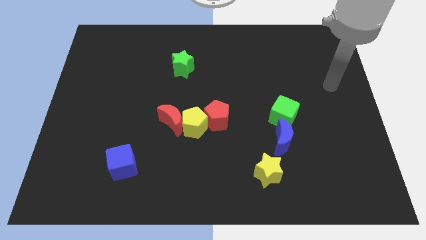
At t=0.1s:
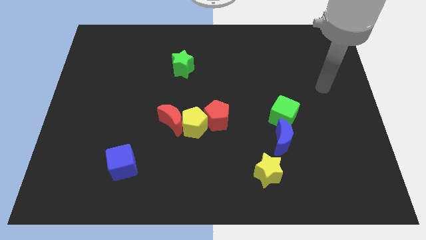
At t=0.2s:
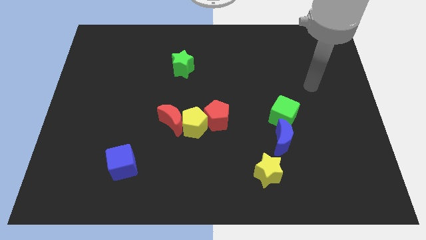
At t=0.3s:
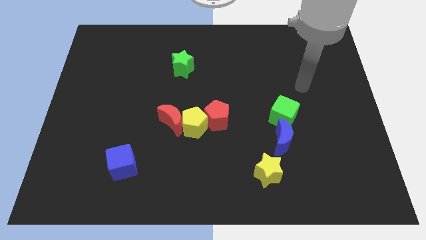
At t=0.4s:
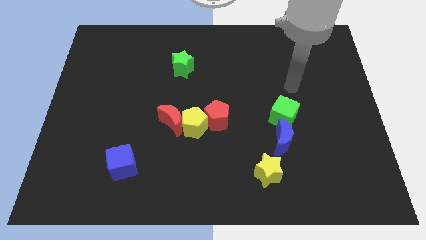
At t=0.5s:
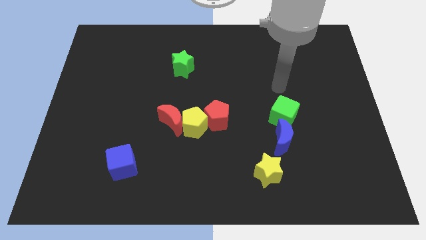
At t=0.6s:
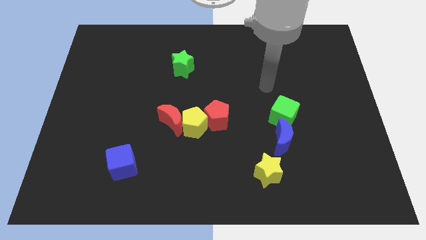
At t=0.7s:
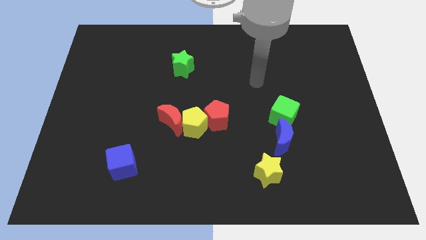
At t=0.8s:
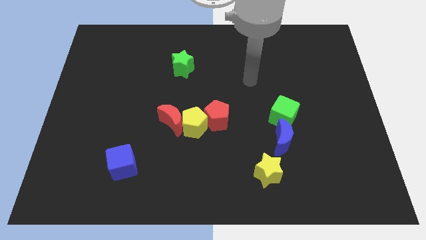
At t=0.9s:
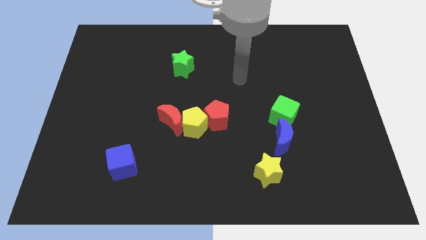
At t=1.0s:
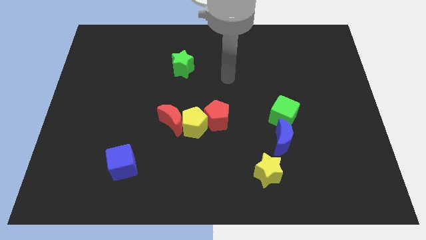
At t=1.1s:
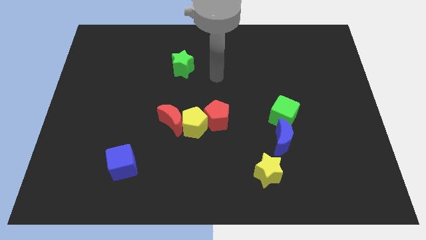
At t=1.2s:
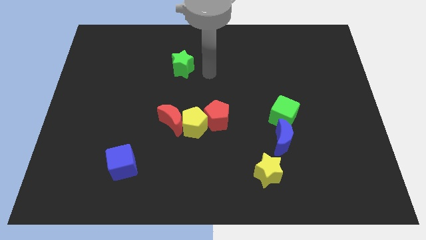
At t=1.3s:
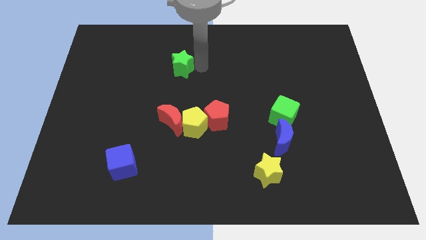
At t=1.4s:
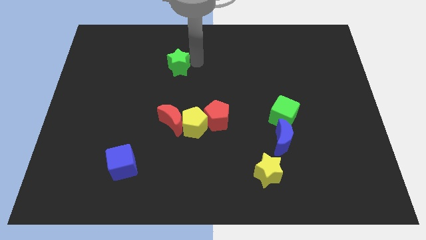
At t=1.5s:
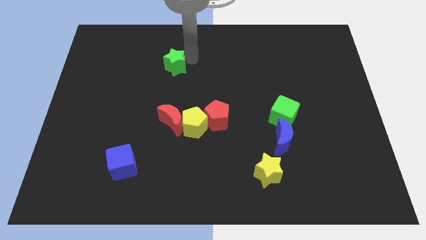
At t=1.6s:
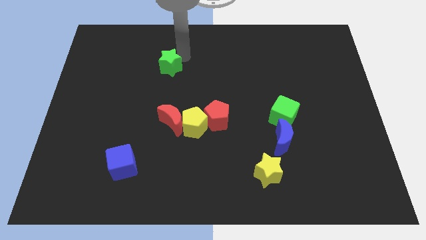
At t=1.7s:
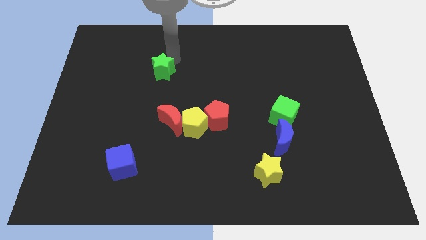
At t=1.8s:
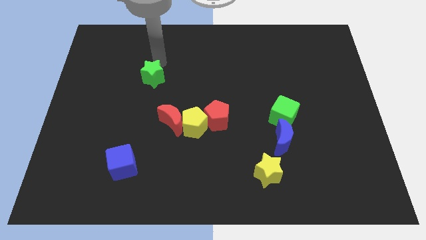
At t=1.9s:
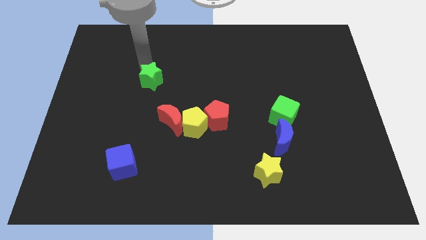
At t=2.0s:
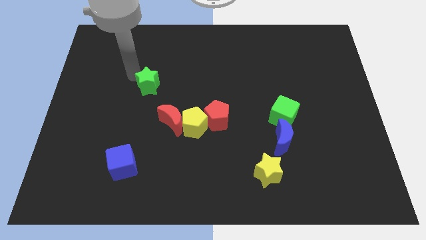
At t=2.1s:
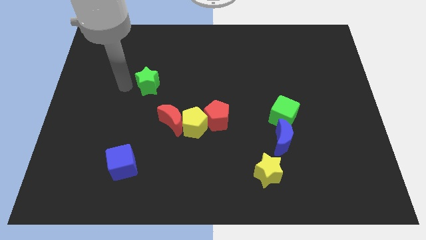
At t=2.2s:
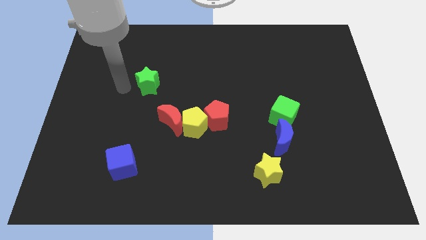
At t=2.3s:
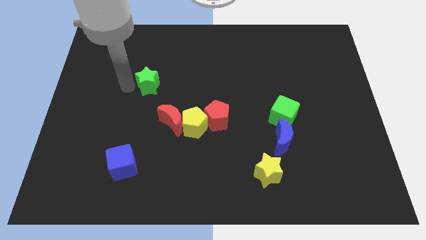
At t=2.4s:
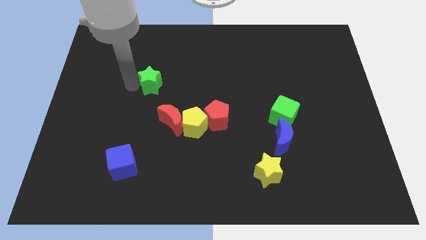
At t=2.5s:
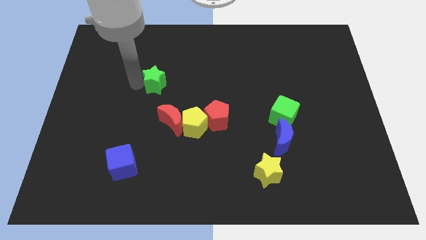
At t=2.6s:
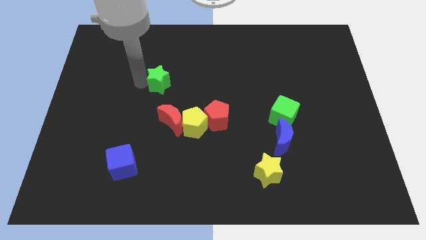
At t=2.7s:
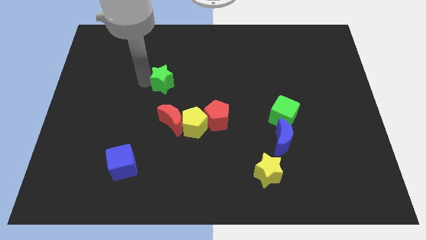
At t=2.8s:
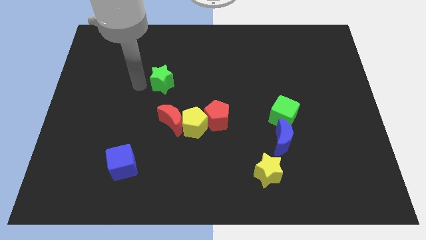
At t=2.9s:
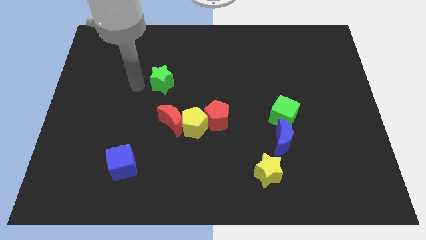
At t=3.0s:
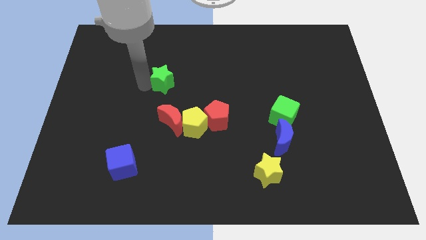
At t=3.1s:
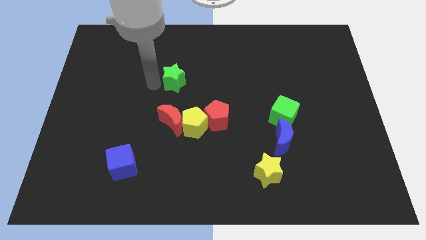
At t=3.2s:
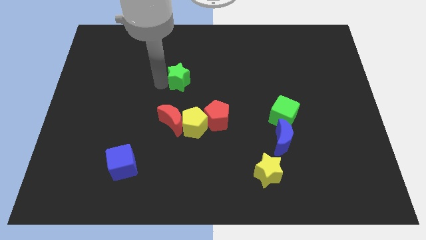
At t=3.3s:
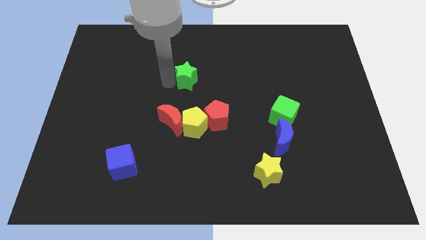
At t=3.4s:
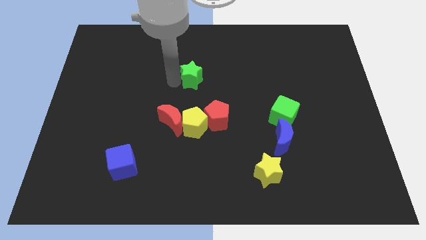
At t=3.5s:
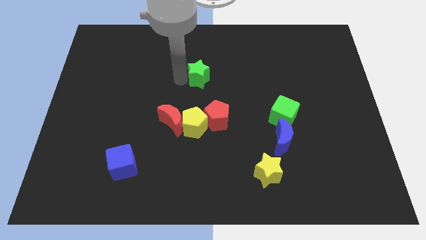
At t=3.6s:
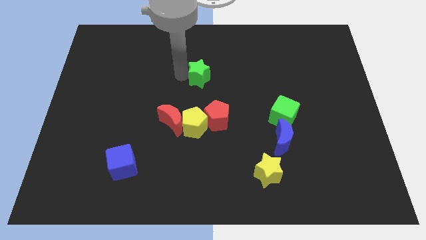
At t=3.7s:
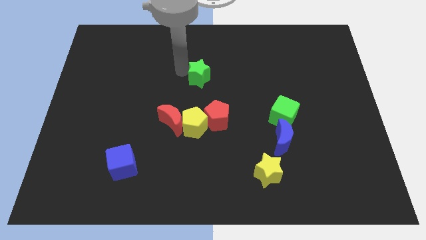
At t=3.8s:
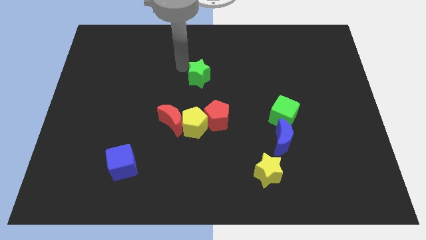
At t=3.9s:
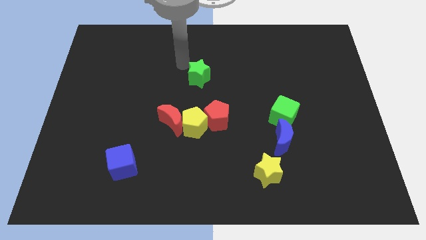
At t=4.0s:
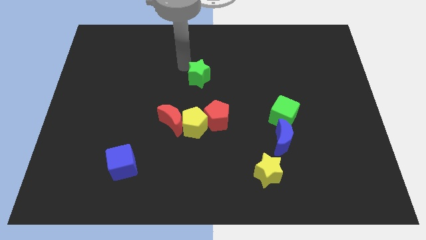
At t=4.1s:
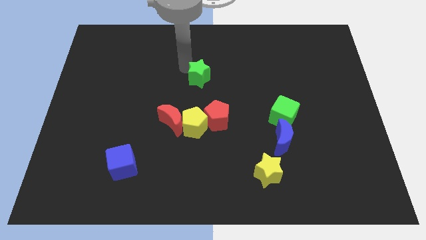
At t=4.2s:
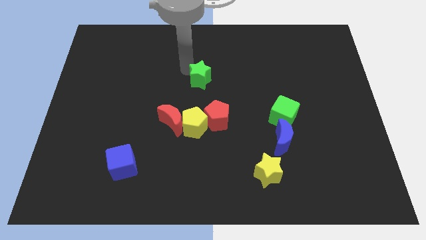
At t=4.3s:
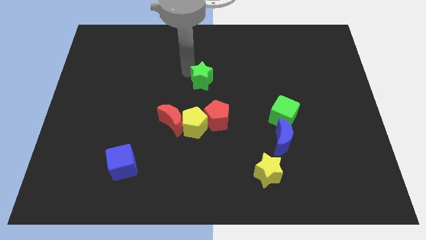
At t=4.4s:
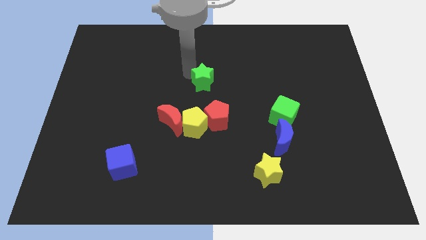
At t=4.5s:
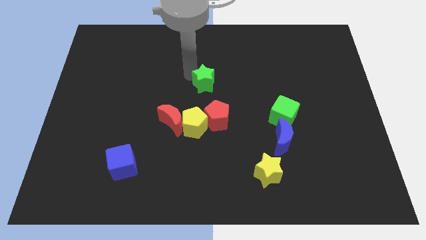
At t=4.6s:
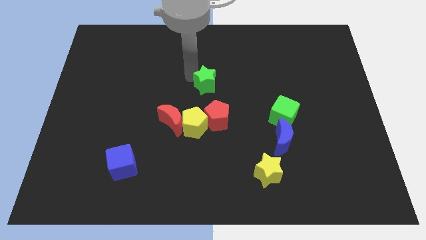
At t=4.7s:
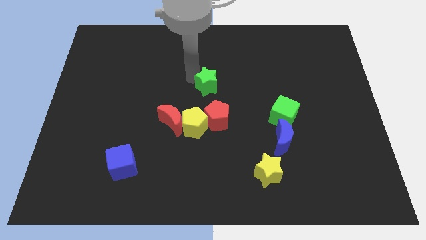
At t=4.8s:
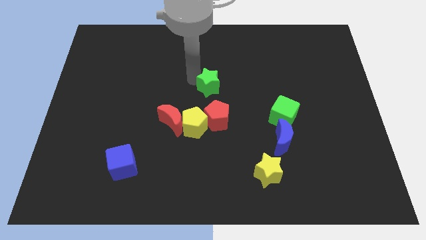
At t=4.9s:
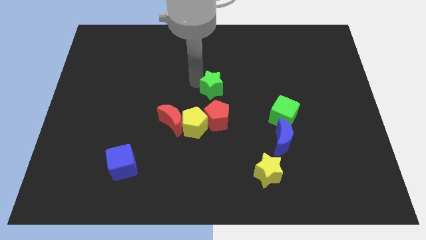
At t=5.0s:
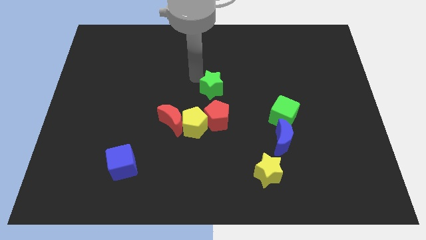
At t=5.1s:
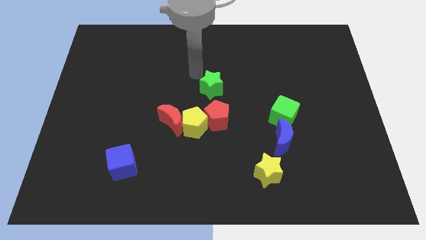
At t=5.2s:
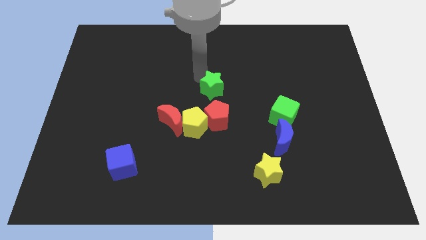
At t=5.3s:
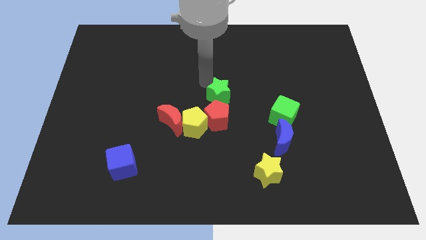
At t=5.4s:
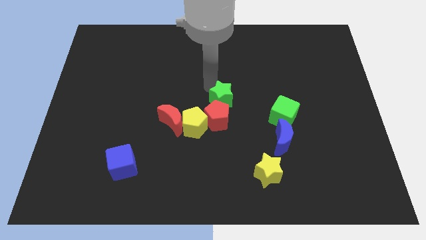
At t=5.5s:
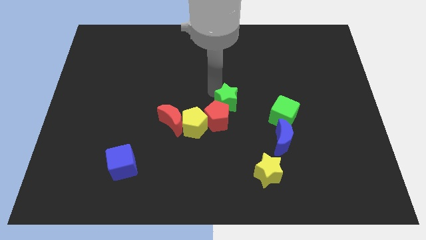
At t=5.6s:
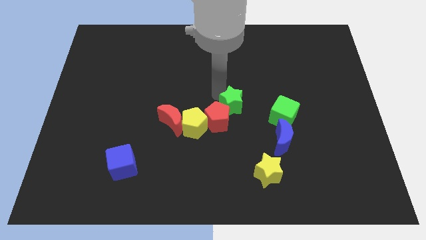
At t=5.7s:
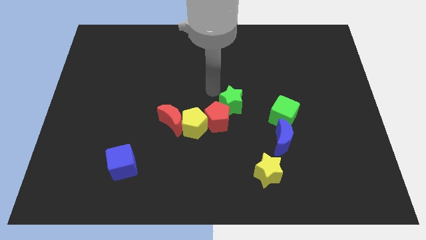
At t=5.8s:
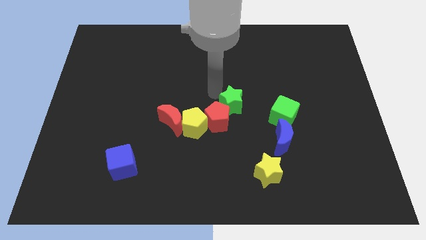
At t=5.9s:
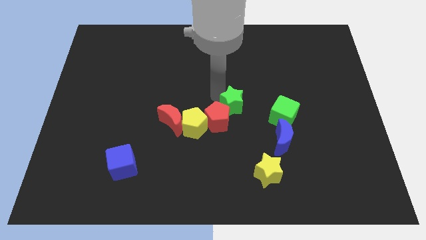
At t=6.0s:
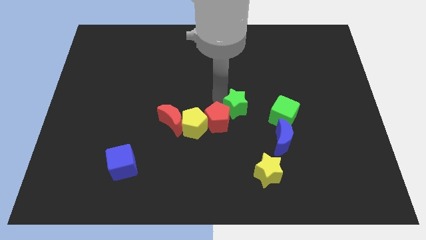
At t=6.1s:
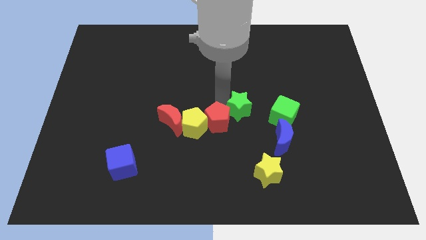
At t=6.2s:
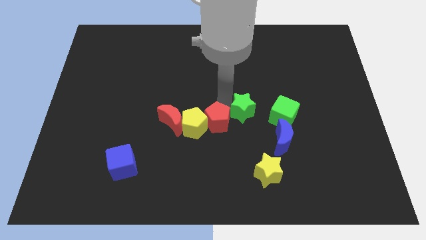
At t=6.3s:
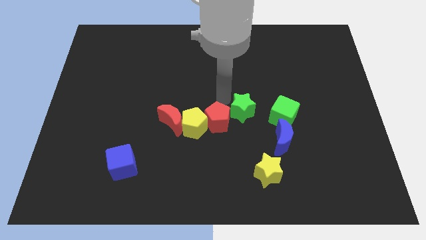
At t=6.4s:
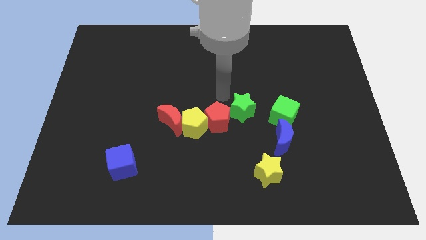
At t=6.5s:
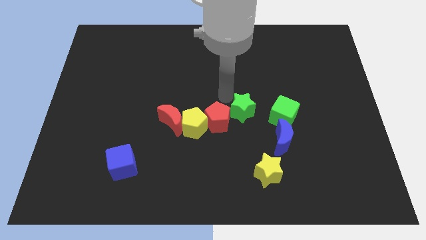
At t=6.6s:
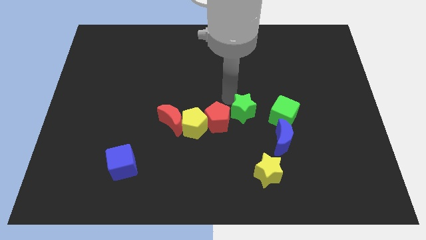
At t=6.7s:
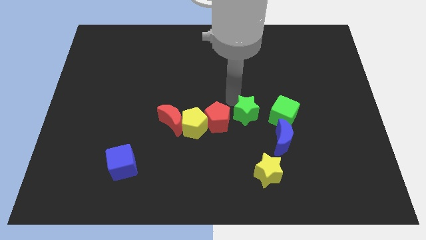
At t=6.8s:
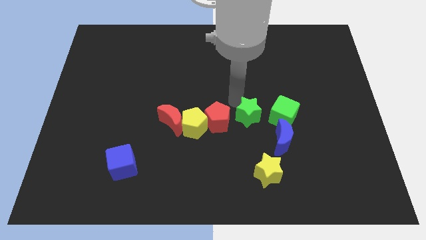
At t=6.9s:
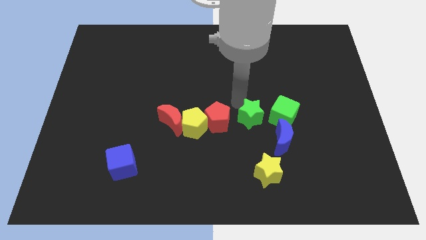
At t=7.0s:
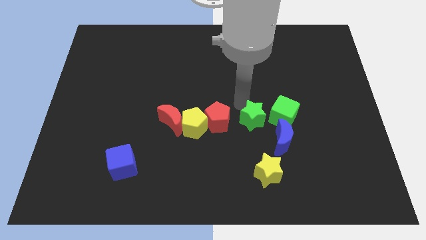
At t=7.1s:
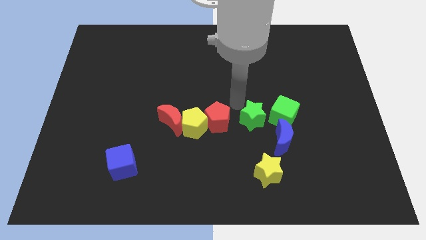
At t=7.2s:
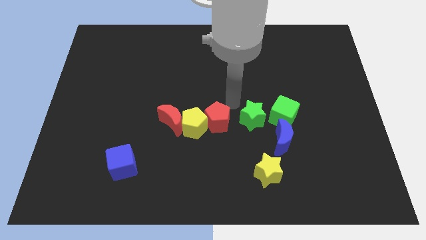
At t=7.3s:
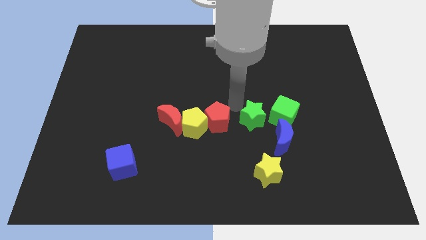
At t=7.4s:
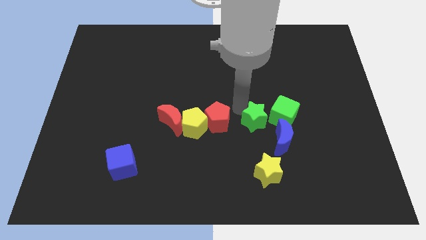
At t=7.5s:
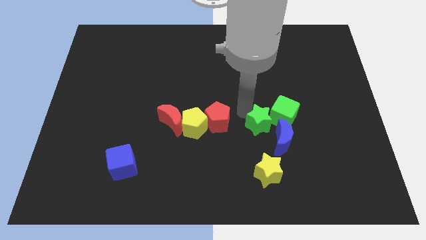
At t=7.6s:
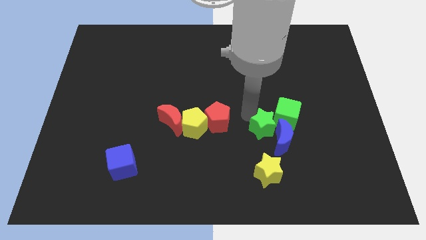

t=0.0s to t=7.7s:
move the green star close to the blue moon
